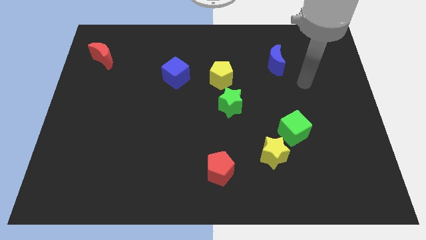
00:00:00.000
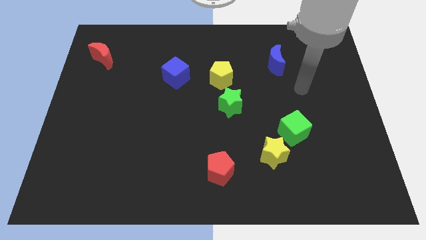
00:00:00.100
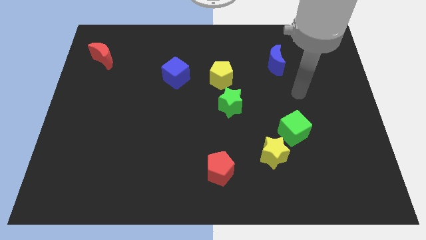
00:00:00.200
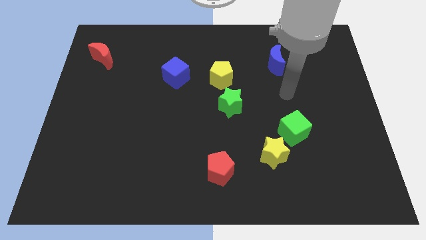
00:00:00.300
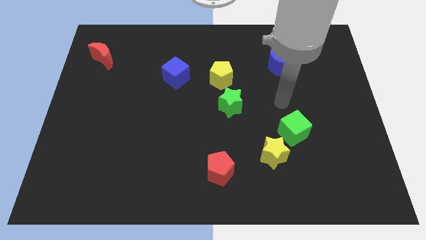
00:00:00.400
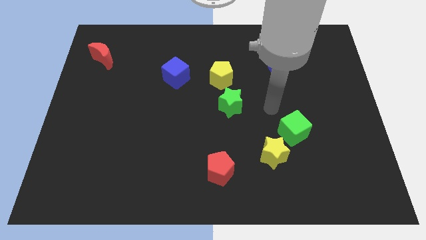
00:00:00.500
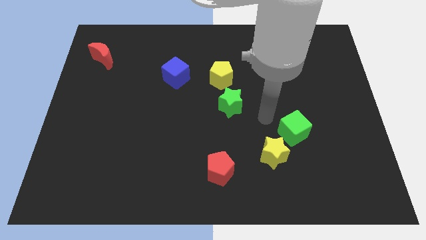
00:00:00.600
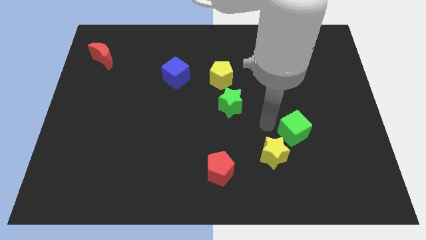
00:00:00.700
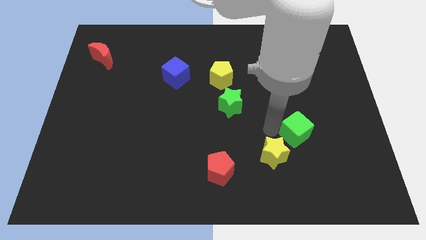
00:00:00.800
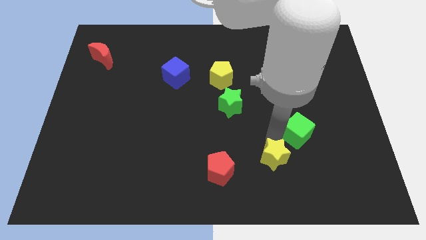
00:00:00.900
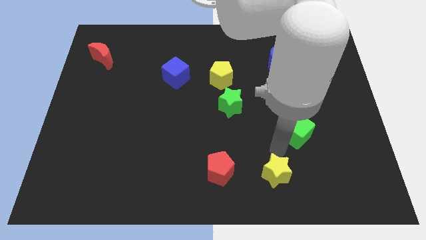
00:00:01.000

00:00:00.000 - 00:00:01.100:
separate the green cube from the yellow star

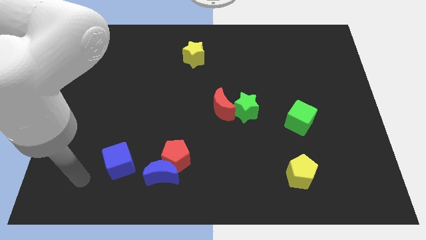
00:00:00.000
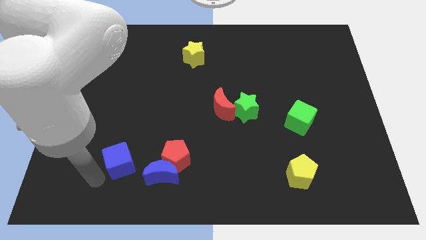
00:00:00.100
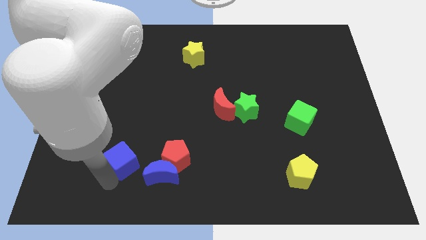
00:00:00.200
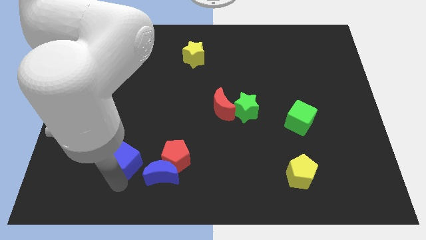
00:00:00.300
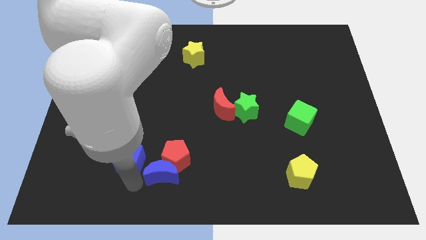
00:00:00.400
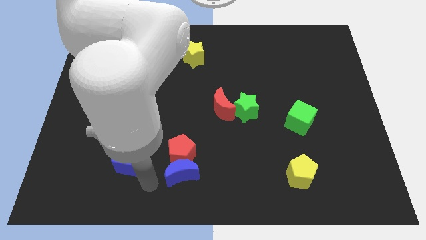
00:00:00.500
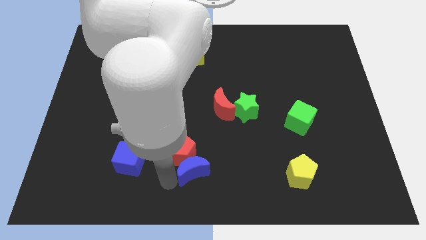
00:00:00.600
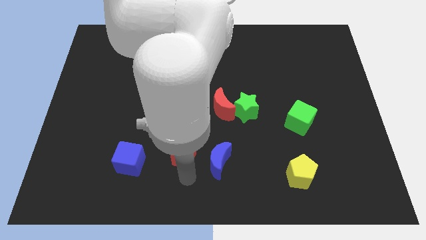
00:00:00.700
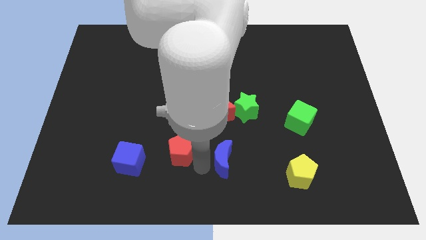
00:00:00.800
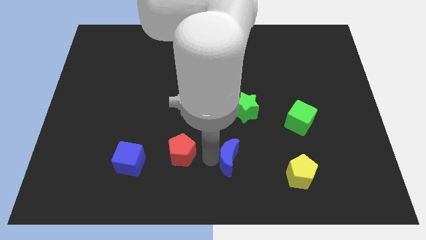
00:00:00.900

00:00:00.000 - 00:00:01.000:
move the red pentagon away from the blue moon

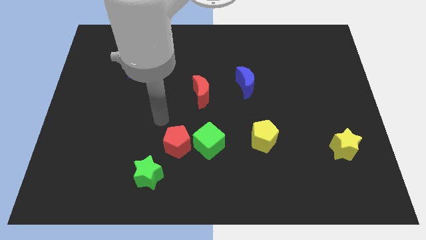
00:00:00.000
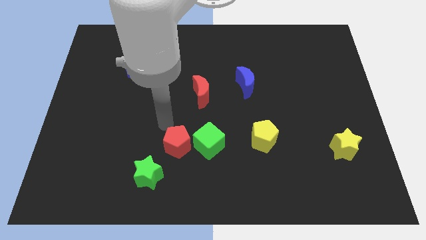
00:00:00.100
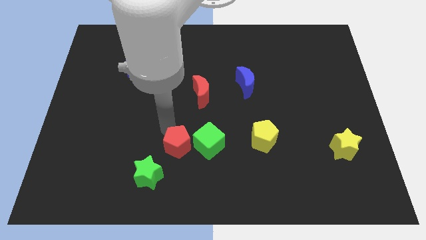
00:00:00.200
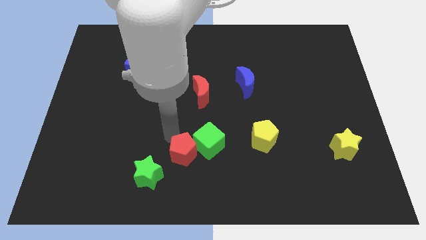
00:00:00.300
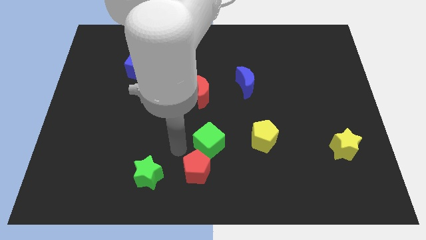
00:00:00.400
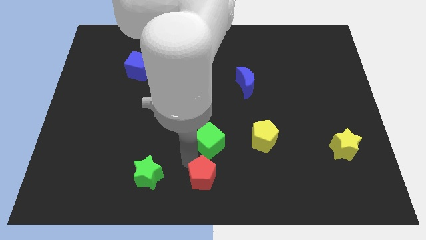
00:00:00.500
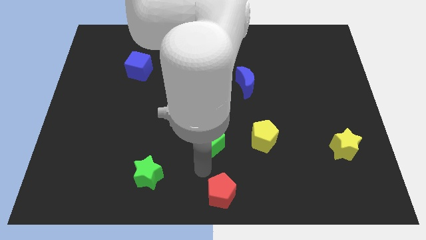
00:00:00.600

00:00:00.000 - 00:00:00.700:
separate the green cube from the red pentagon

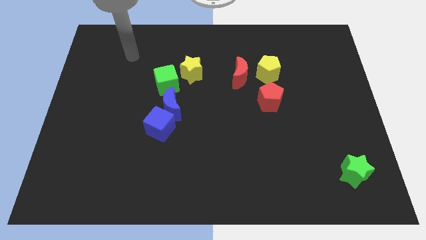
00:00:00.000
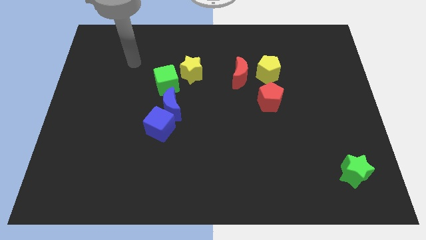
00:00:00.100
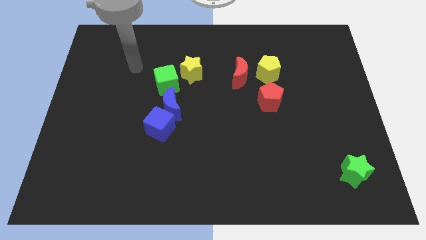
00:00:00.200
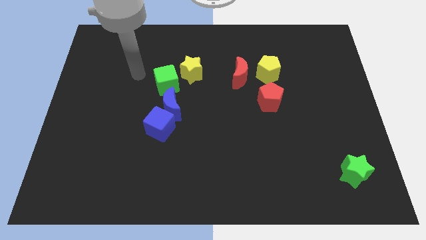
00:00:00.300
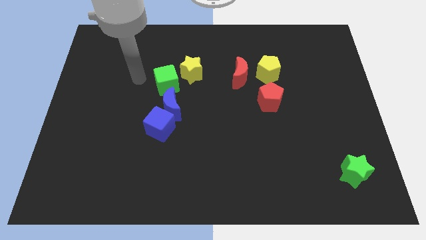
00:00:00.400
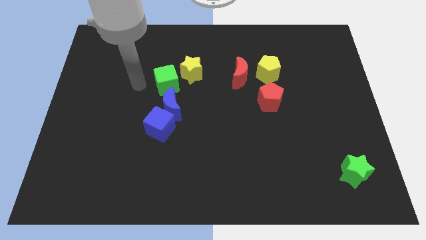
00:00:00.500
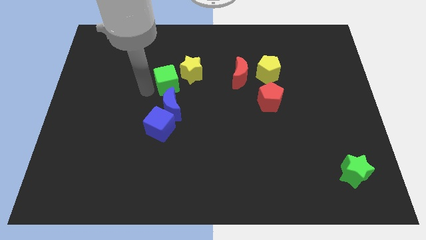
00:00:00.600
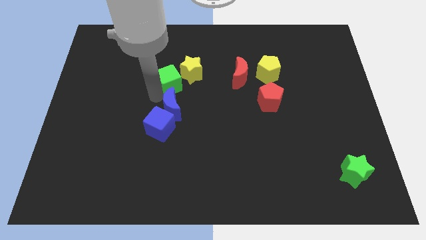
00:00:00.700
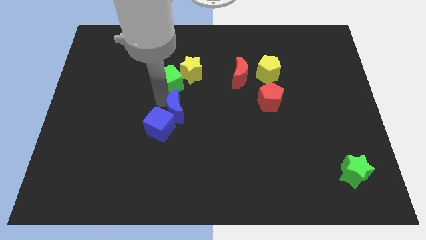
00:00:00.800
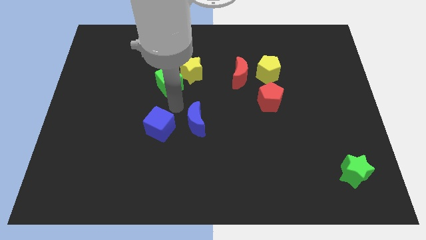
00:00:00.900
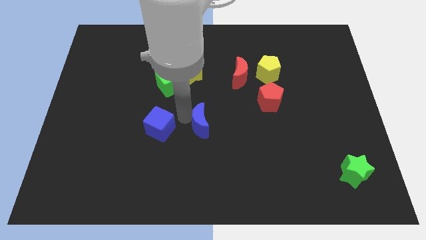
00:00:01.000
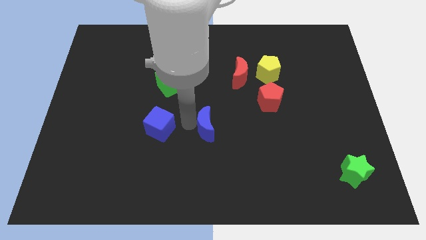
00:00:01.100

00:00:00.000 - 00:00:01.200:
pull the blue cube apart from the blue moon

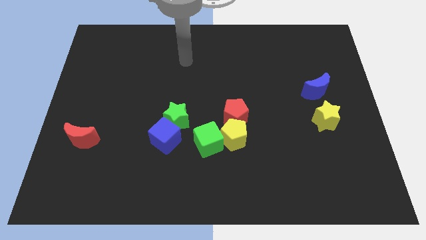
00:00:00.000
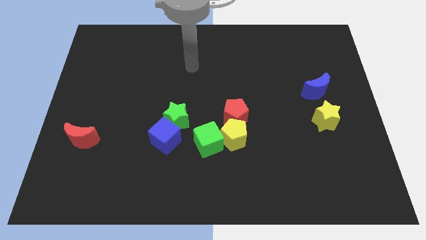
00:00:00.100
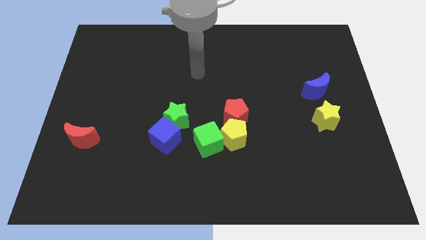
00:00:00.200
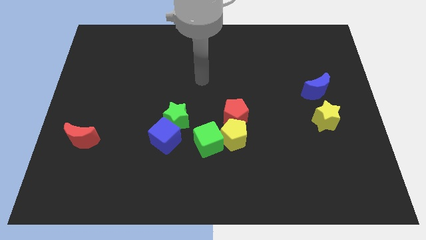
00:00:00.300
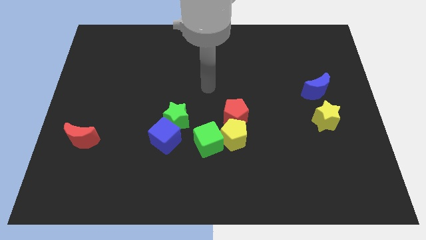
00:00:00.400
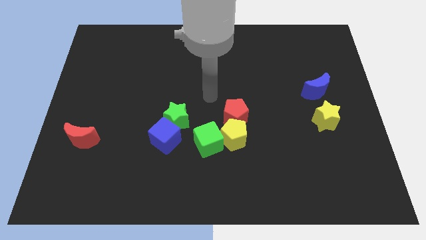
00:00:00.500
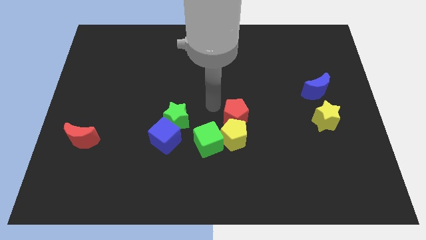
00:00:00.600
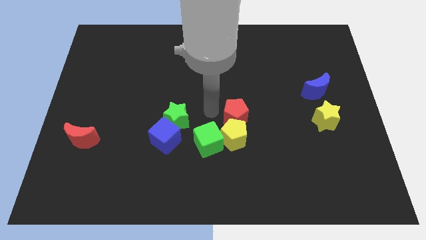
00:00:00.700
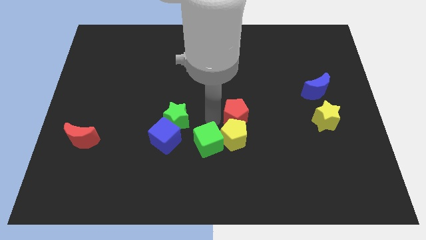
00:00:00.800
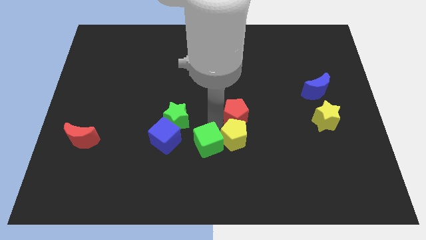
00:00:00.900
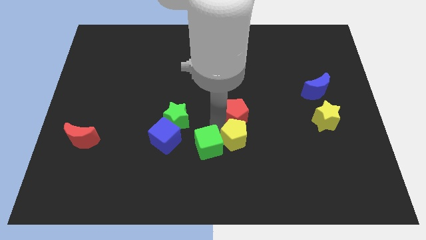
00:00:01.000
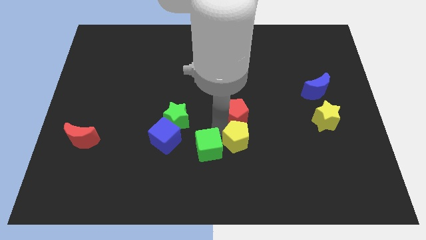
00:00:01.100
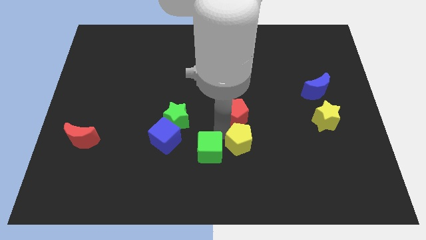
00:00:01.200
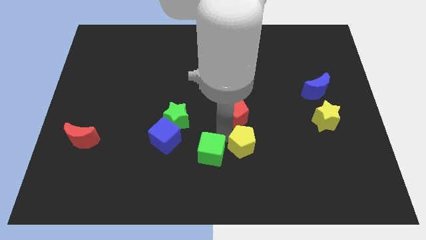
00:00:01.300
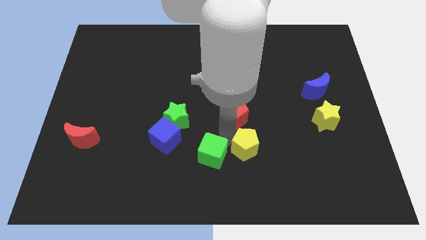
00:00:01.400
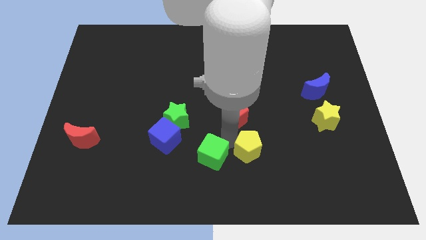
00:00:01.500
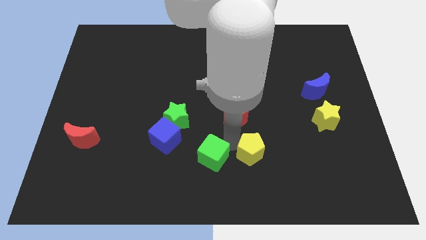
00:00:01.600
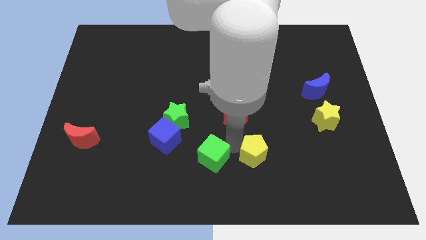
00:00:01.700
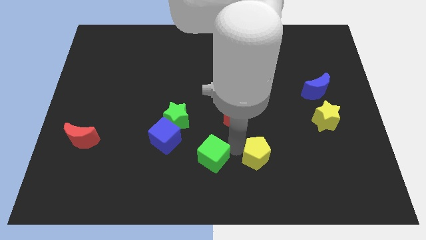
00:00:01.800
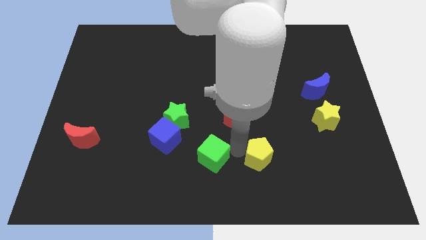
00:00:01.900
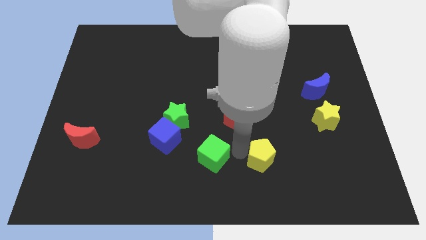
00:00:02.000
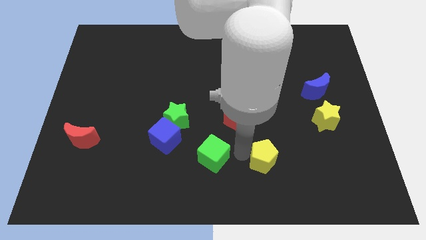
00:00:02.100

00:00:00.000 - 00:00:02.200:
move the yellow pentagon away from the green cube and red pentagon

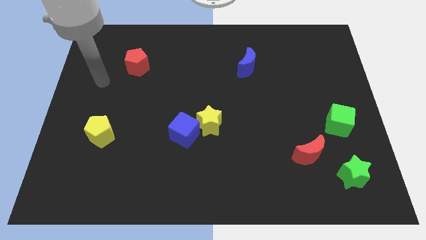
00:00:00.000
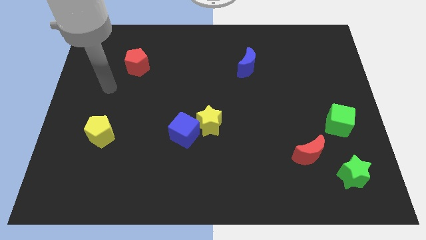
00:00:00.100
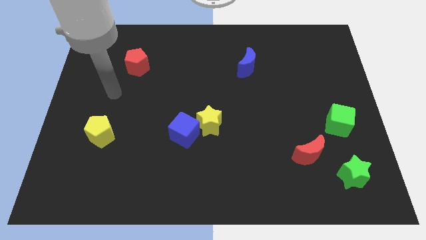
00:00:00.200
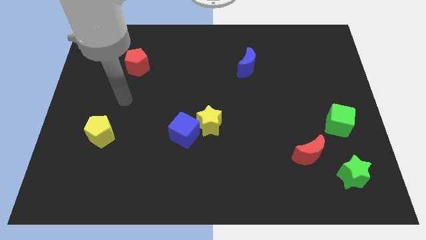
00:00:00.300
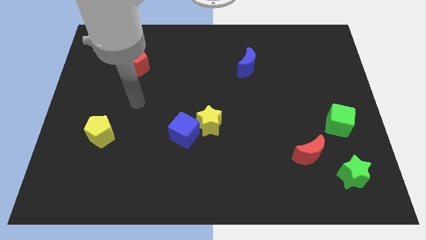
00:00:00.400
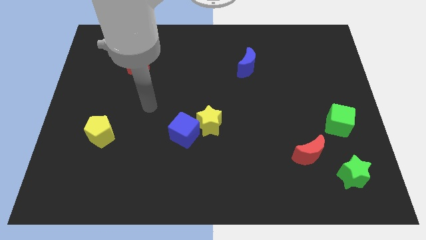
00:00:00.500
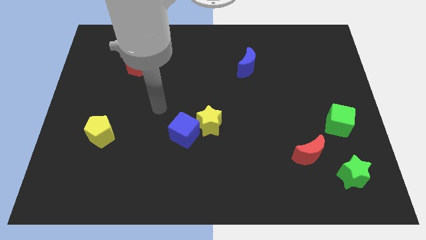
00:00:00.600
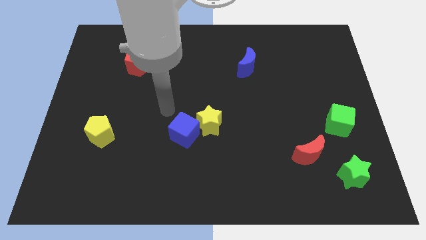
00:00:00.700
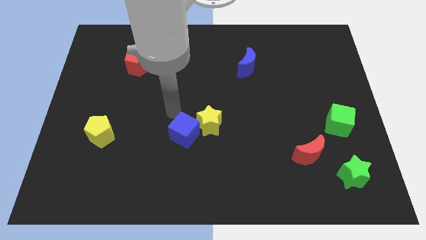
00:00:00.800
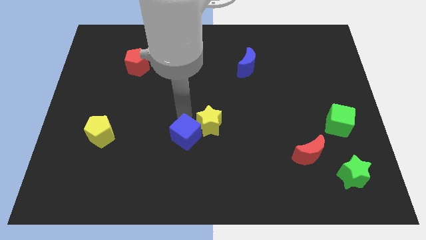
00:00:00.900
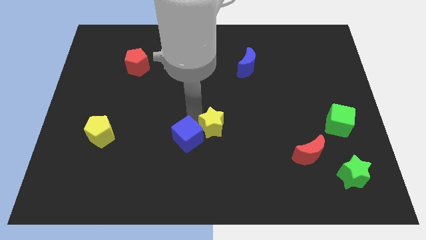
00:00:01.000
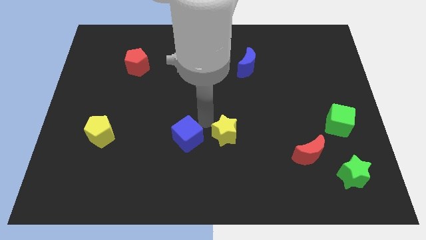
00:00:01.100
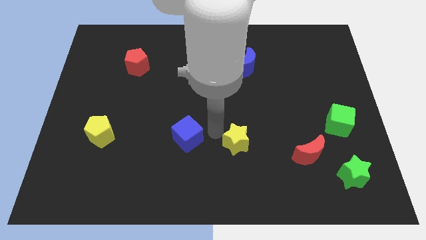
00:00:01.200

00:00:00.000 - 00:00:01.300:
pull the blue cube apart from the yellow star

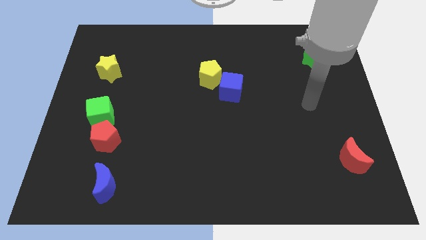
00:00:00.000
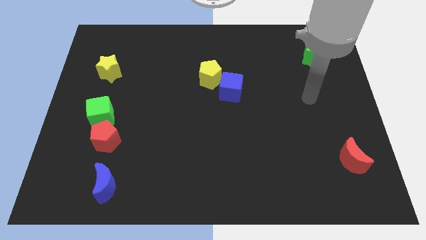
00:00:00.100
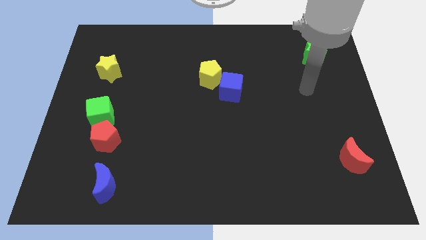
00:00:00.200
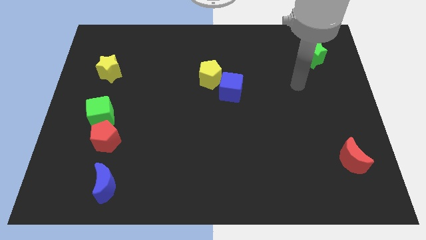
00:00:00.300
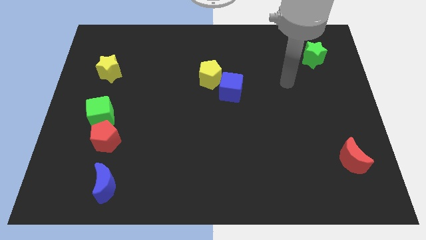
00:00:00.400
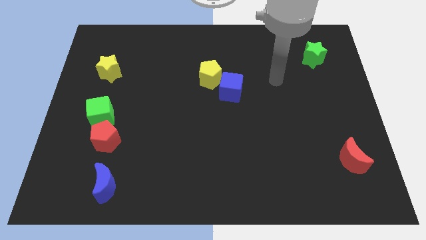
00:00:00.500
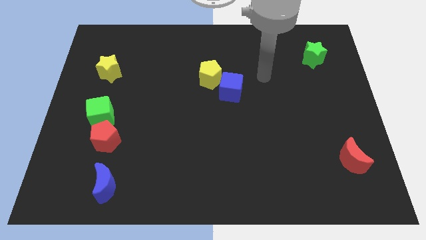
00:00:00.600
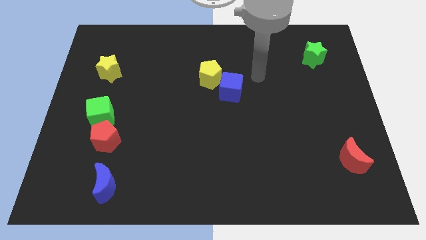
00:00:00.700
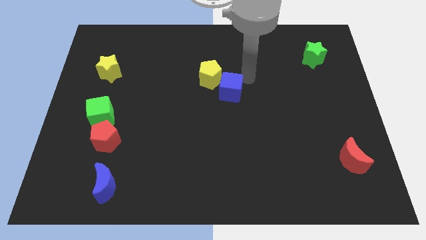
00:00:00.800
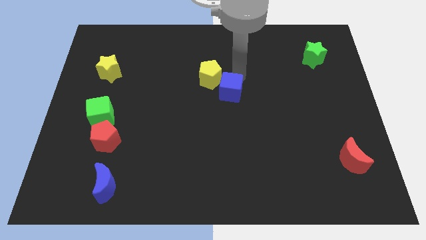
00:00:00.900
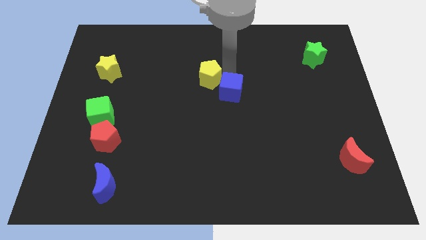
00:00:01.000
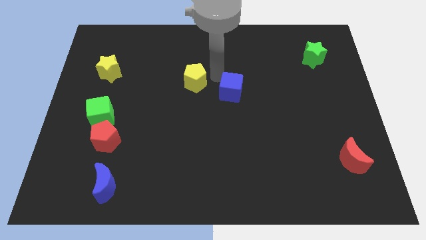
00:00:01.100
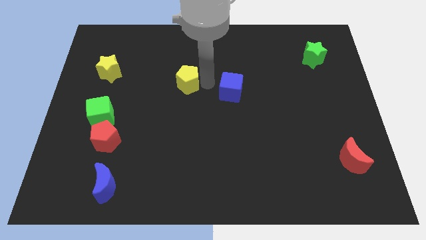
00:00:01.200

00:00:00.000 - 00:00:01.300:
move the blue cube away from the yellow pentagon

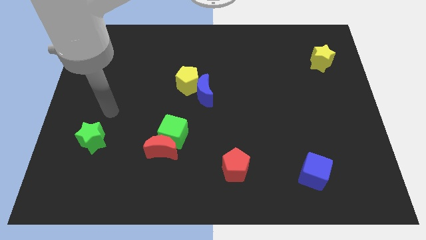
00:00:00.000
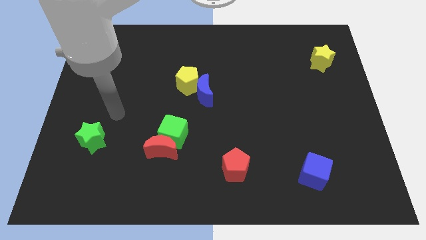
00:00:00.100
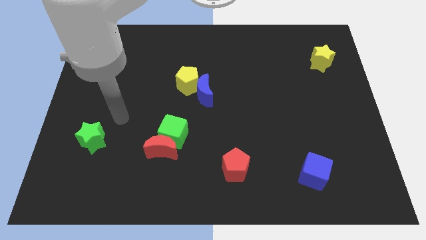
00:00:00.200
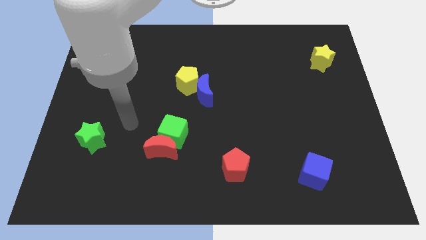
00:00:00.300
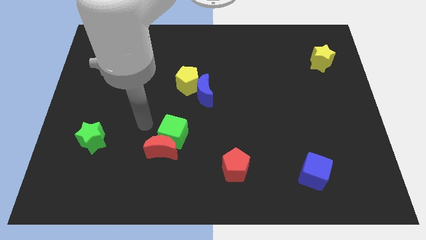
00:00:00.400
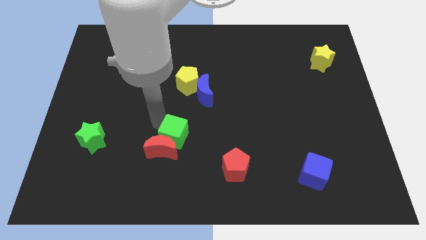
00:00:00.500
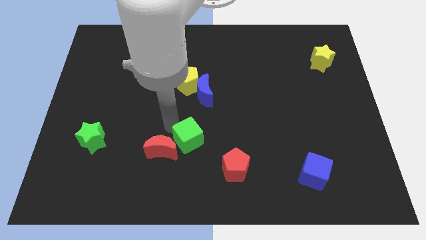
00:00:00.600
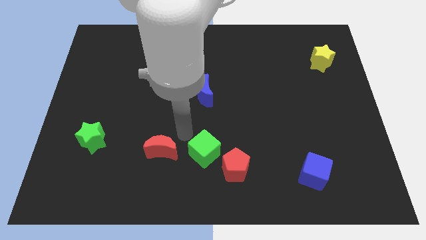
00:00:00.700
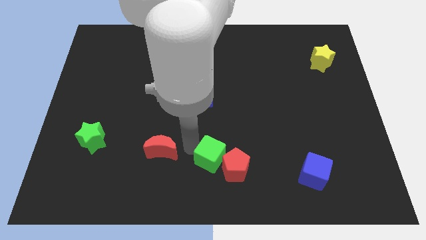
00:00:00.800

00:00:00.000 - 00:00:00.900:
move the red moon away from the green cube
